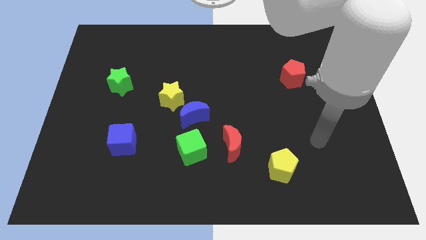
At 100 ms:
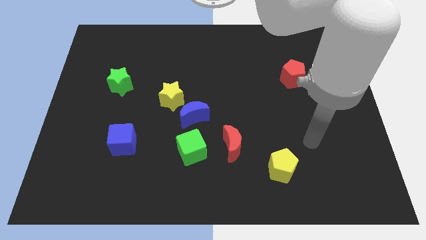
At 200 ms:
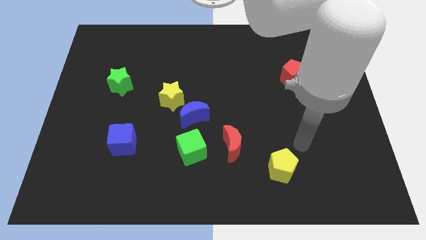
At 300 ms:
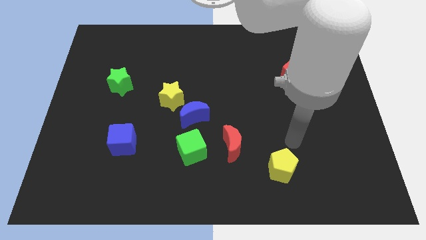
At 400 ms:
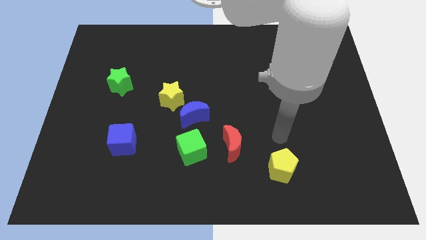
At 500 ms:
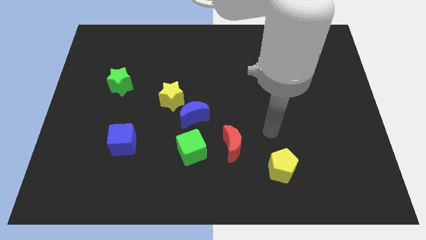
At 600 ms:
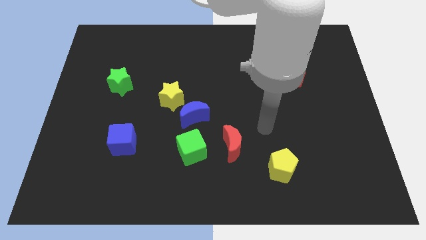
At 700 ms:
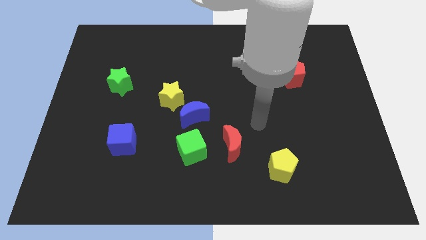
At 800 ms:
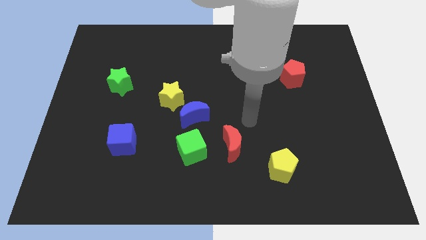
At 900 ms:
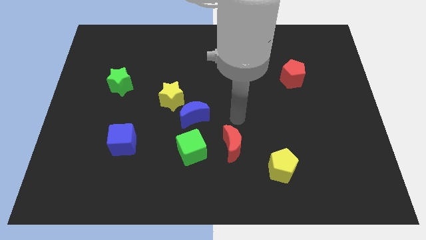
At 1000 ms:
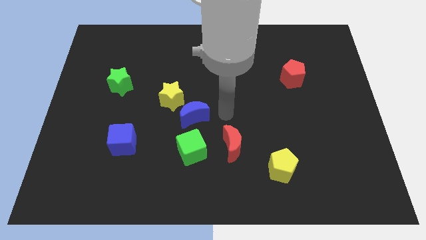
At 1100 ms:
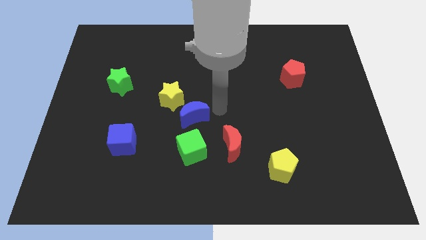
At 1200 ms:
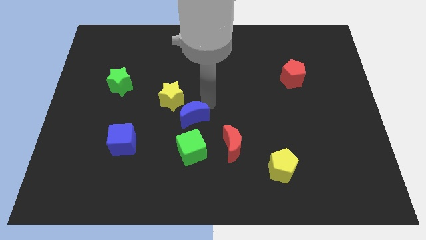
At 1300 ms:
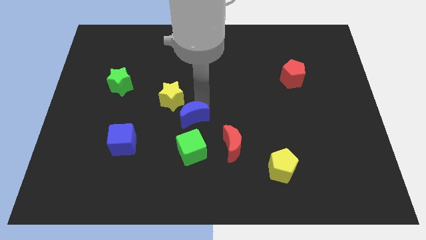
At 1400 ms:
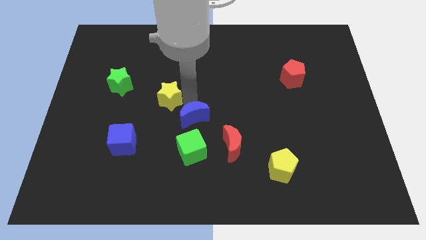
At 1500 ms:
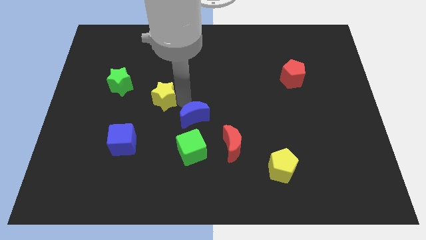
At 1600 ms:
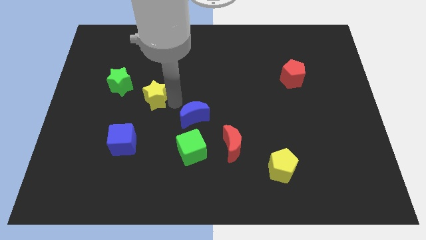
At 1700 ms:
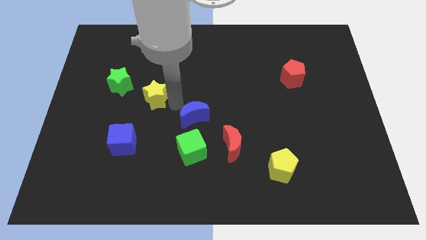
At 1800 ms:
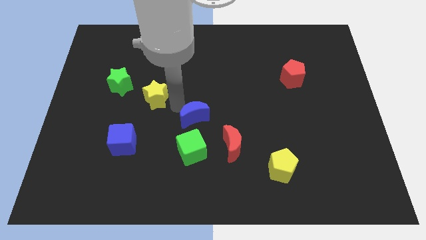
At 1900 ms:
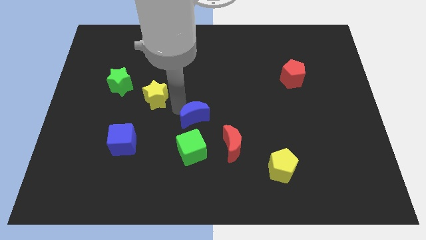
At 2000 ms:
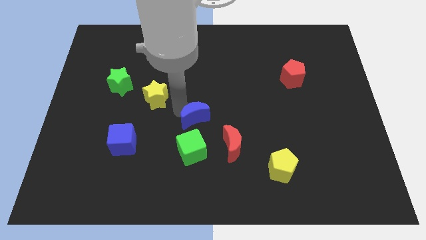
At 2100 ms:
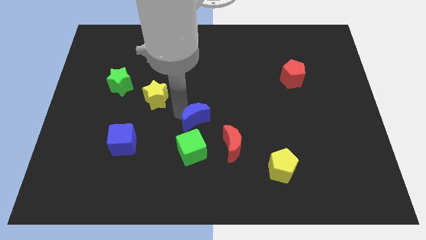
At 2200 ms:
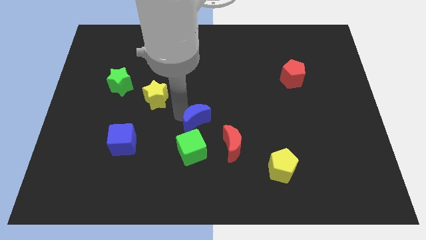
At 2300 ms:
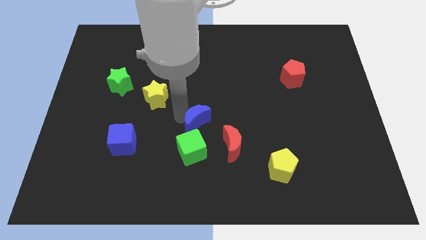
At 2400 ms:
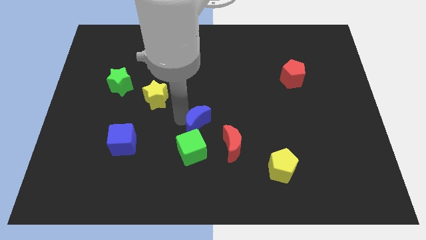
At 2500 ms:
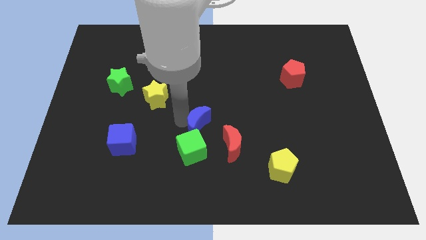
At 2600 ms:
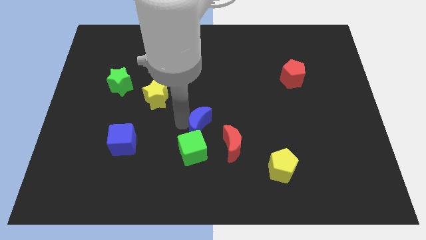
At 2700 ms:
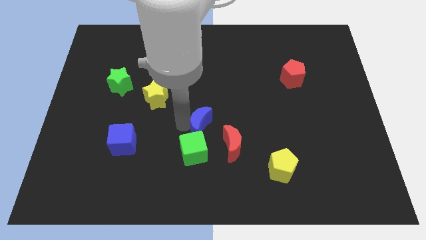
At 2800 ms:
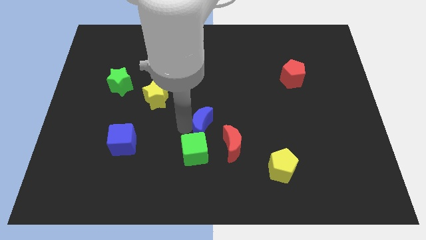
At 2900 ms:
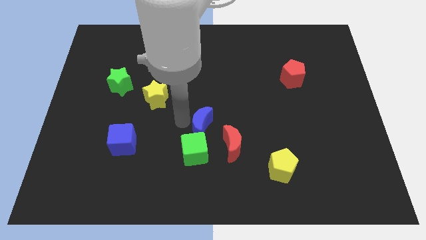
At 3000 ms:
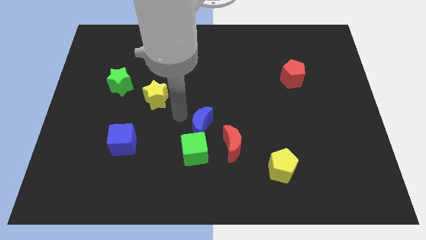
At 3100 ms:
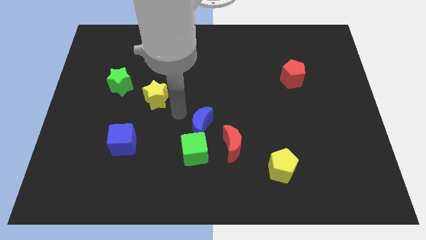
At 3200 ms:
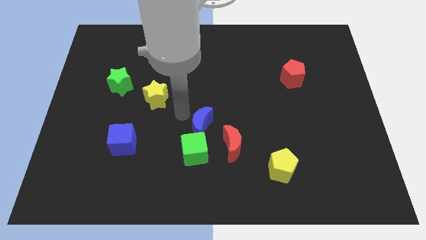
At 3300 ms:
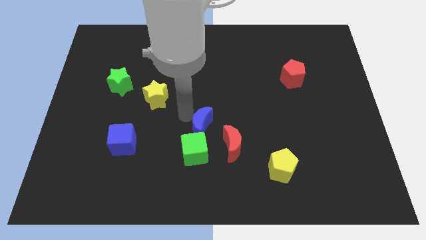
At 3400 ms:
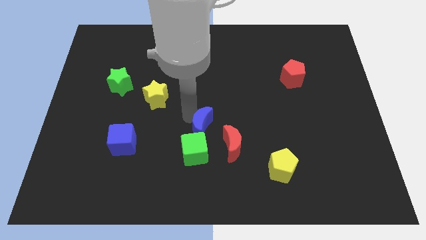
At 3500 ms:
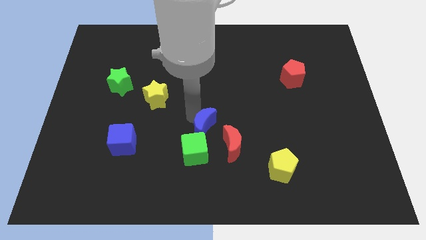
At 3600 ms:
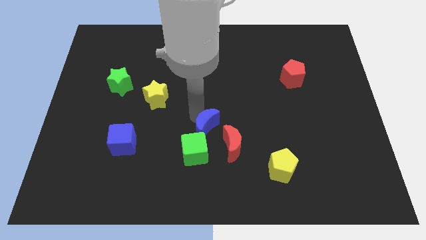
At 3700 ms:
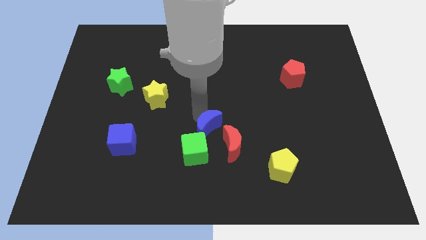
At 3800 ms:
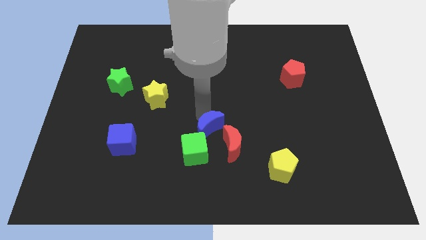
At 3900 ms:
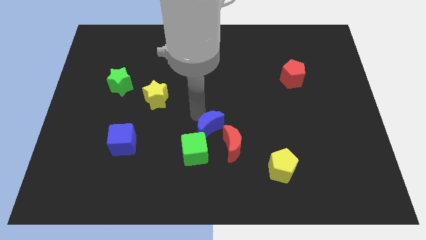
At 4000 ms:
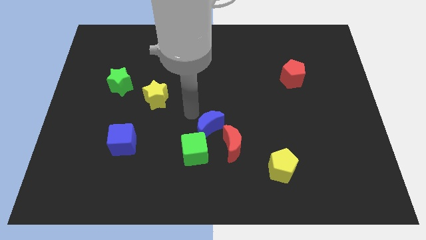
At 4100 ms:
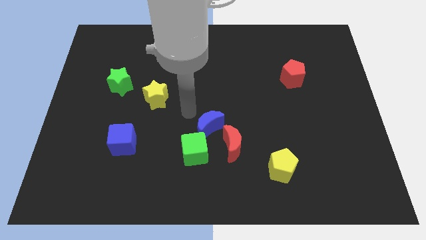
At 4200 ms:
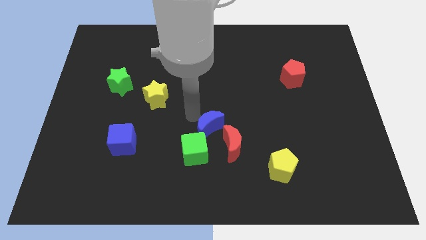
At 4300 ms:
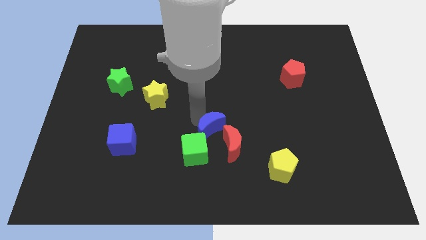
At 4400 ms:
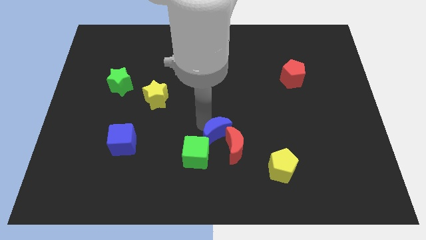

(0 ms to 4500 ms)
put the blue moon next to the red moon

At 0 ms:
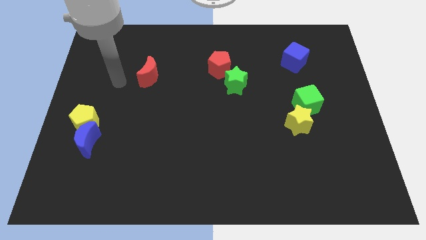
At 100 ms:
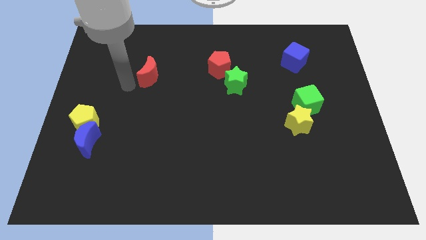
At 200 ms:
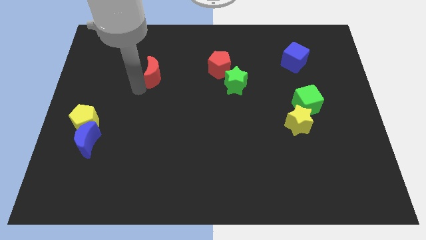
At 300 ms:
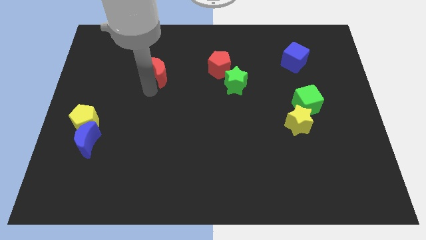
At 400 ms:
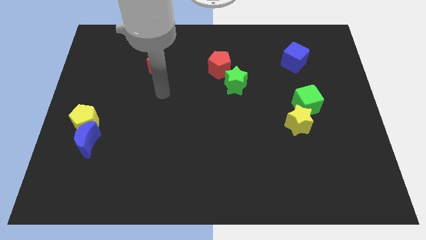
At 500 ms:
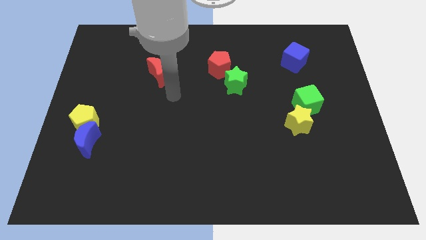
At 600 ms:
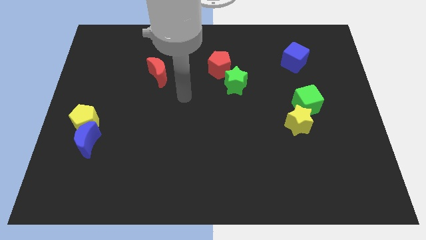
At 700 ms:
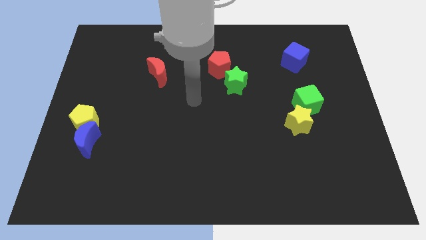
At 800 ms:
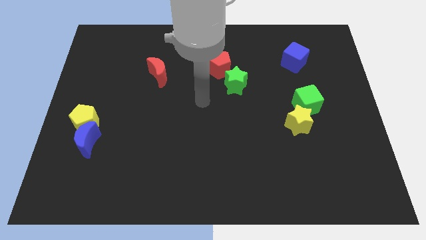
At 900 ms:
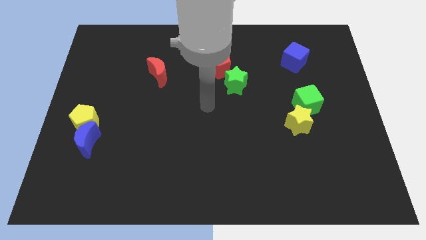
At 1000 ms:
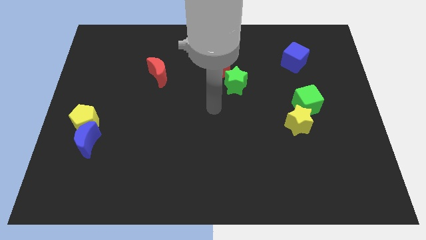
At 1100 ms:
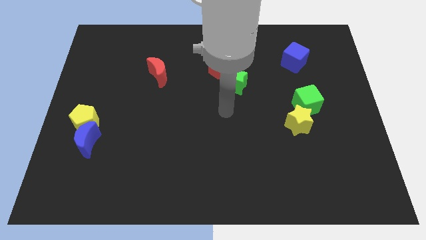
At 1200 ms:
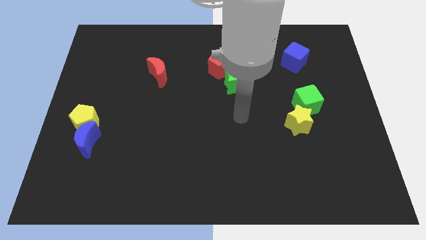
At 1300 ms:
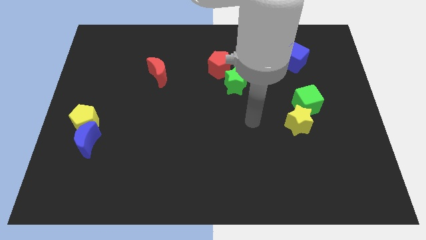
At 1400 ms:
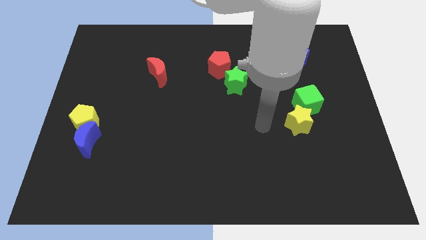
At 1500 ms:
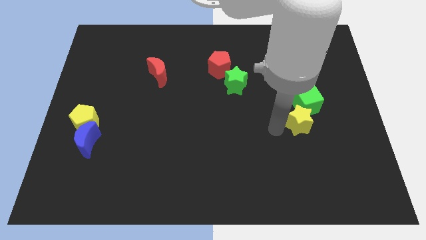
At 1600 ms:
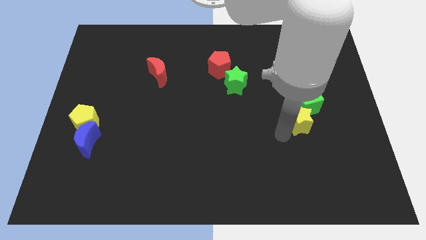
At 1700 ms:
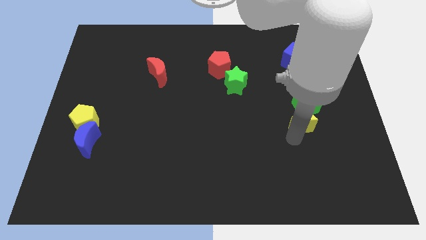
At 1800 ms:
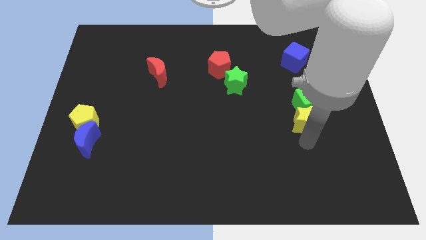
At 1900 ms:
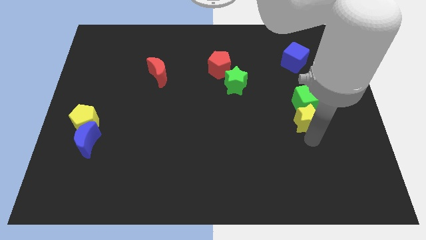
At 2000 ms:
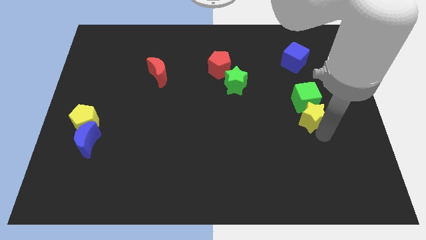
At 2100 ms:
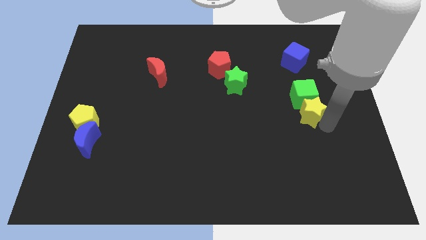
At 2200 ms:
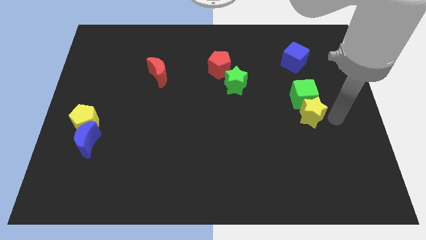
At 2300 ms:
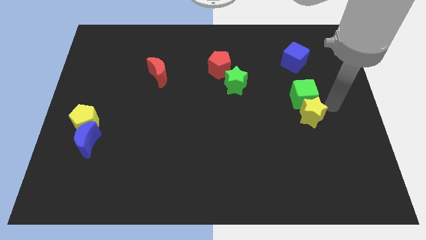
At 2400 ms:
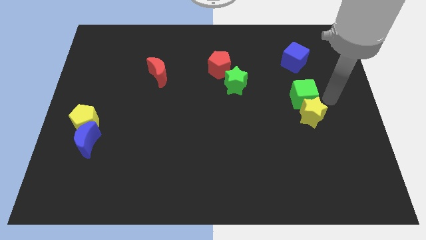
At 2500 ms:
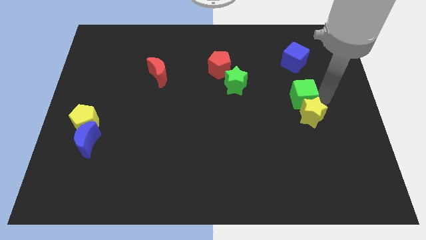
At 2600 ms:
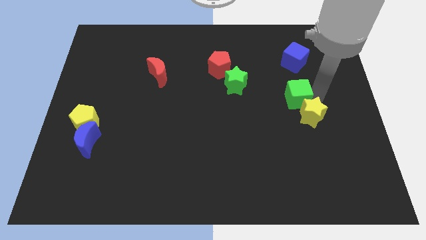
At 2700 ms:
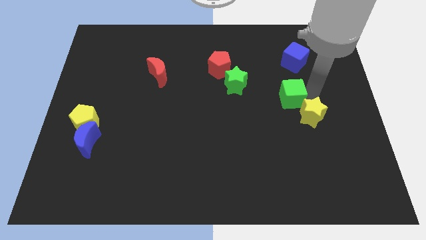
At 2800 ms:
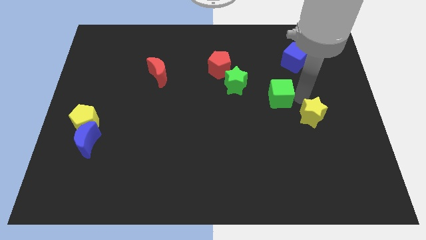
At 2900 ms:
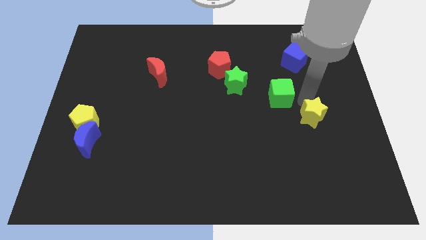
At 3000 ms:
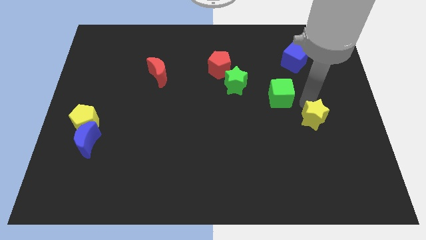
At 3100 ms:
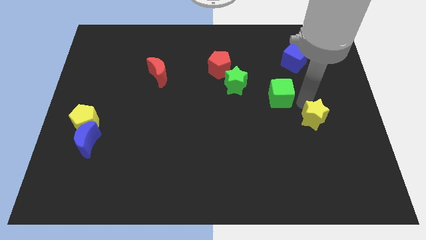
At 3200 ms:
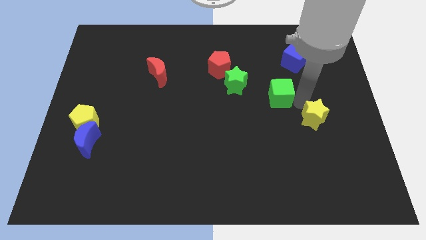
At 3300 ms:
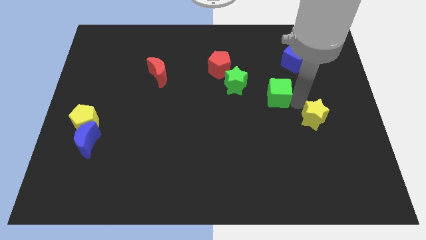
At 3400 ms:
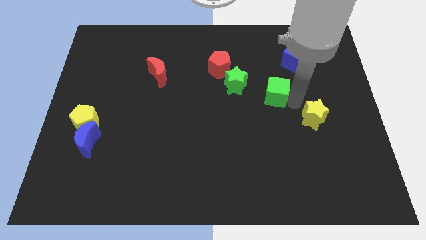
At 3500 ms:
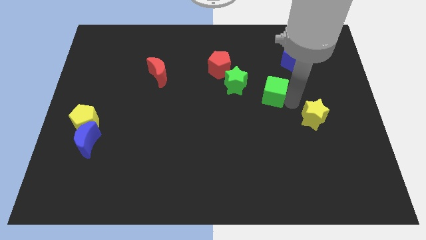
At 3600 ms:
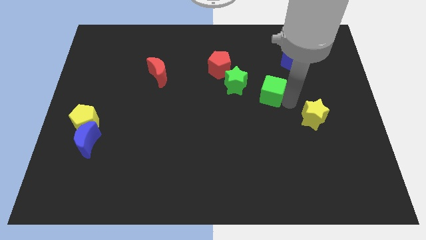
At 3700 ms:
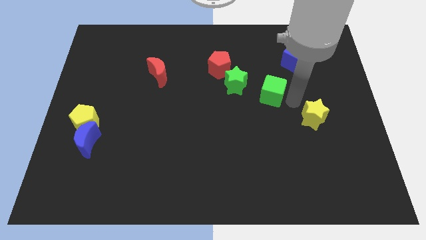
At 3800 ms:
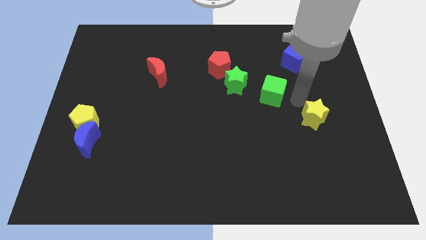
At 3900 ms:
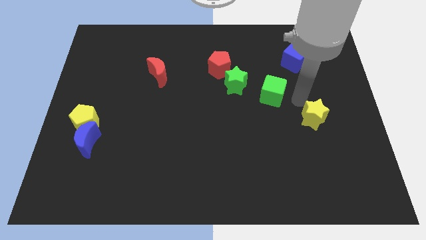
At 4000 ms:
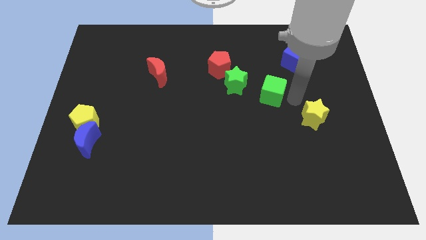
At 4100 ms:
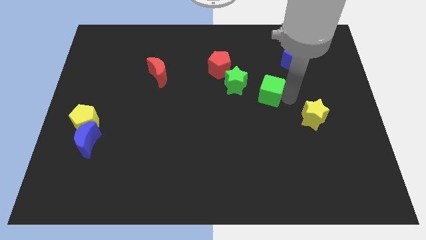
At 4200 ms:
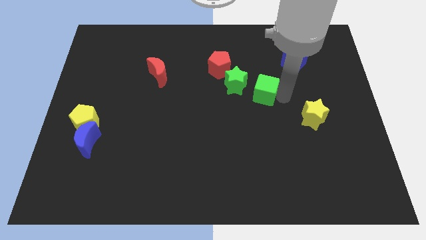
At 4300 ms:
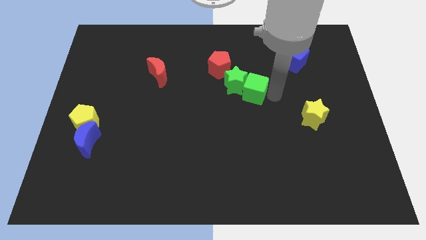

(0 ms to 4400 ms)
push the green cube to the green star
